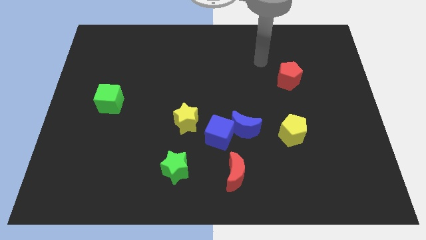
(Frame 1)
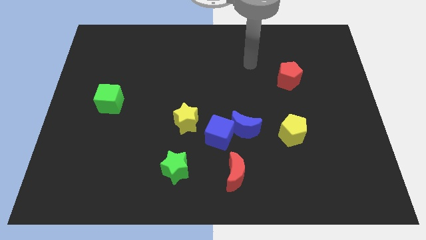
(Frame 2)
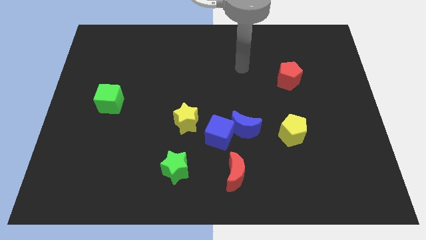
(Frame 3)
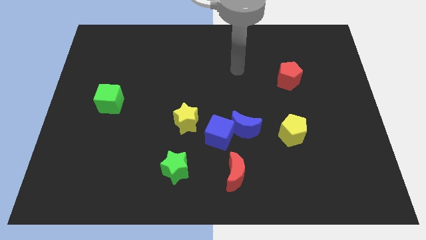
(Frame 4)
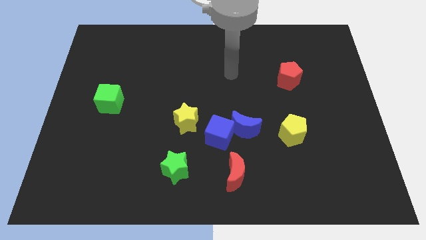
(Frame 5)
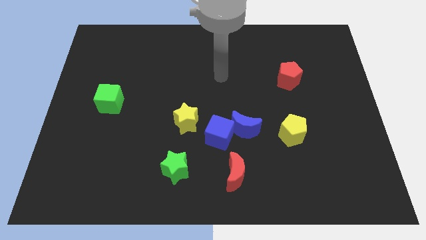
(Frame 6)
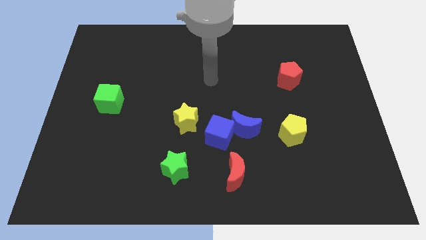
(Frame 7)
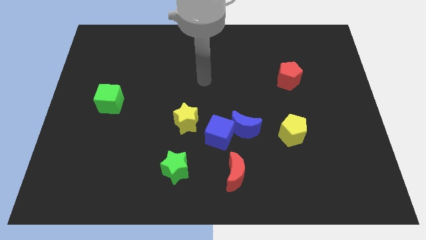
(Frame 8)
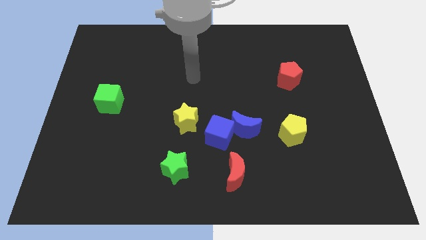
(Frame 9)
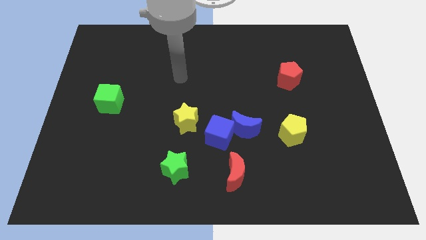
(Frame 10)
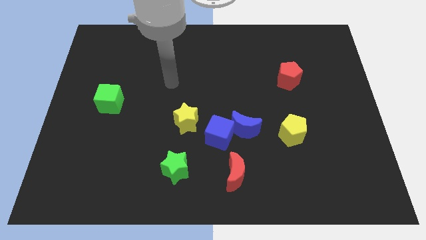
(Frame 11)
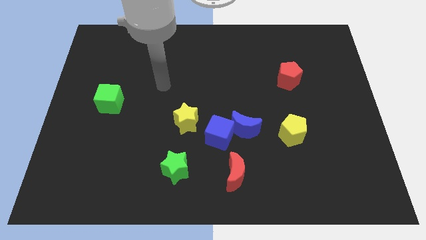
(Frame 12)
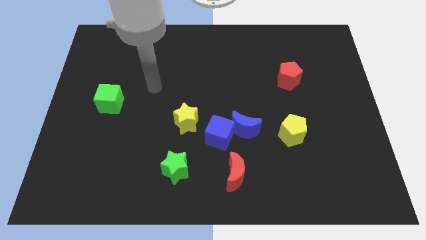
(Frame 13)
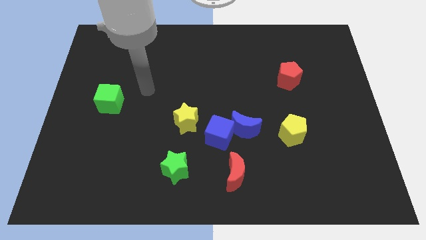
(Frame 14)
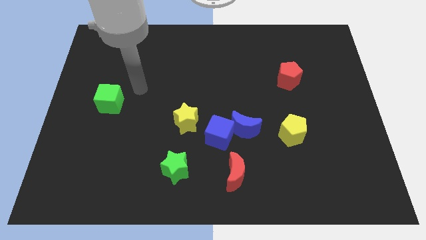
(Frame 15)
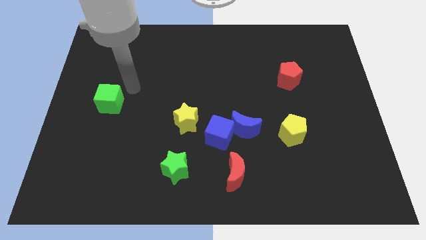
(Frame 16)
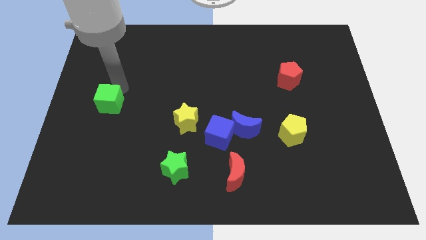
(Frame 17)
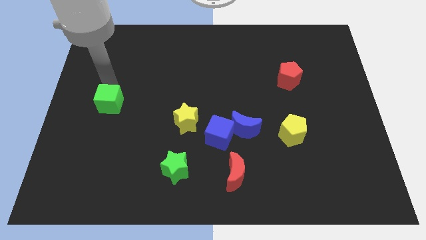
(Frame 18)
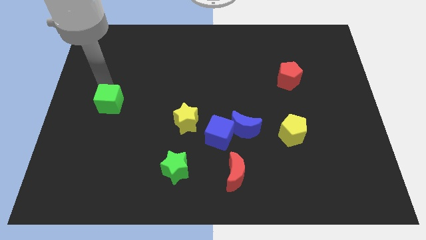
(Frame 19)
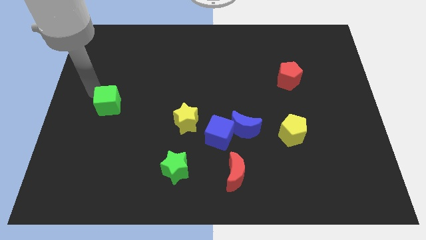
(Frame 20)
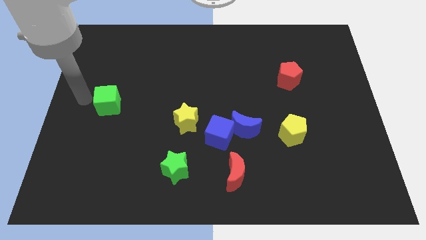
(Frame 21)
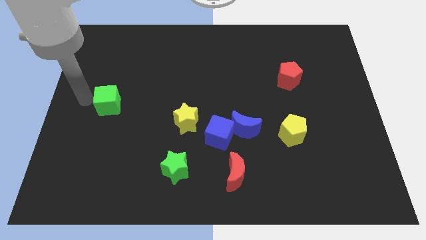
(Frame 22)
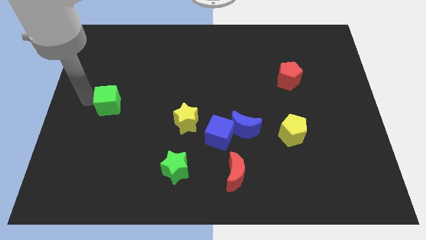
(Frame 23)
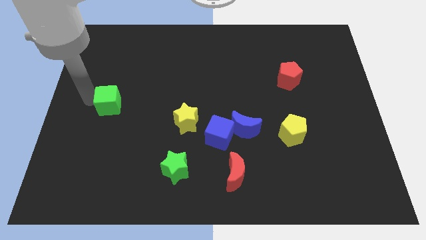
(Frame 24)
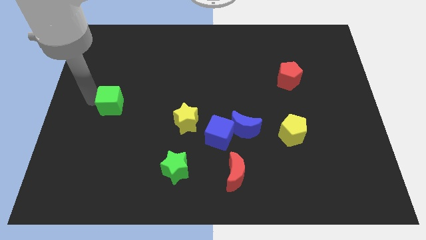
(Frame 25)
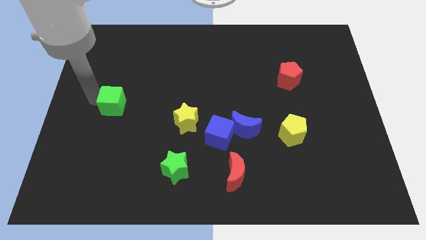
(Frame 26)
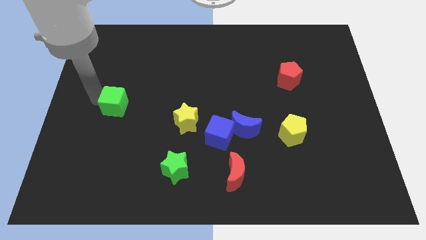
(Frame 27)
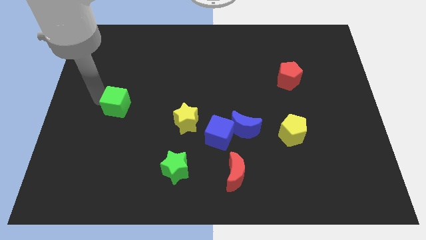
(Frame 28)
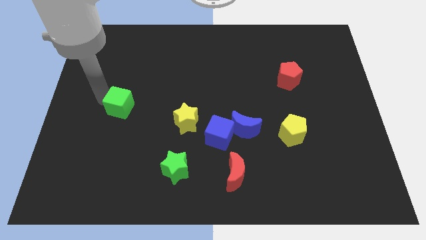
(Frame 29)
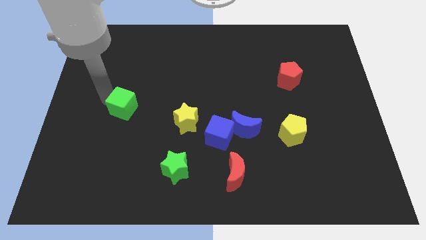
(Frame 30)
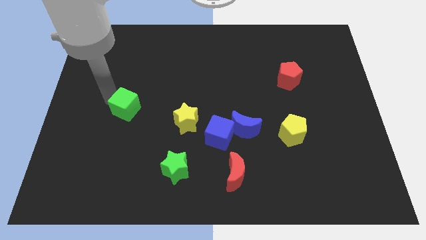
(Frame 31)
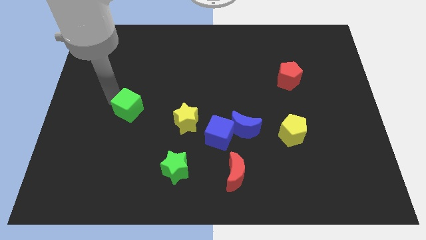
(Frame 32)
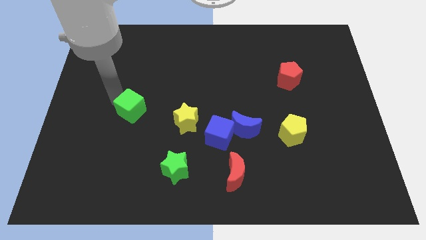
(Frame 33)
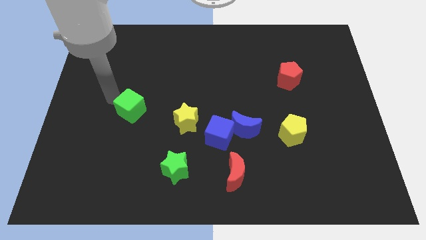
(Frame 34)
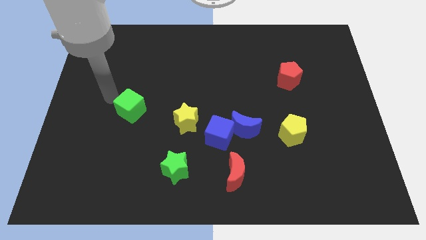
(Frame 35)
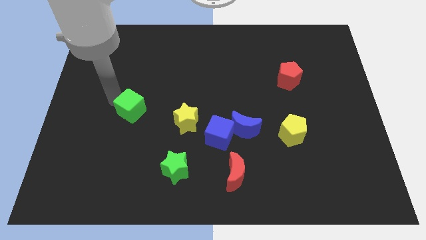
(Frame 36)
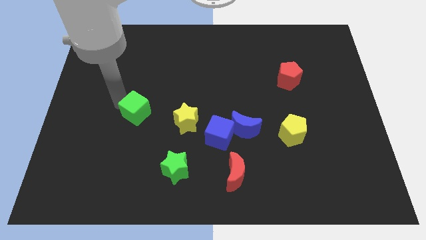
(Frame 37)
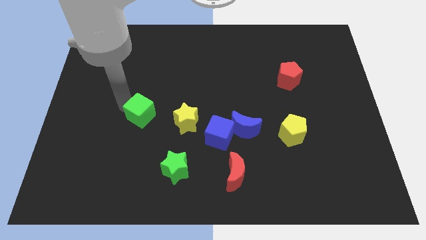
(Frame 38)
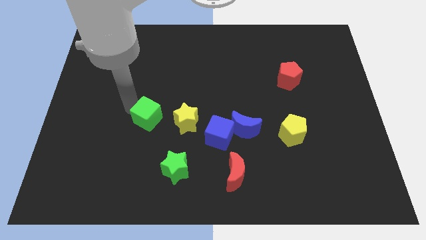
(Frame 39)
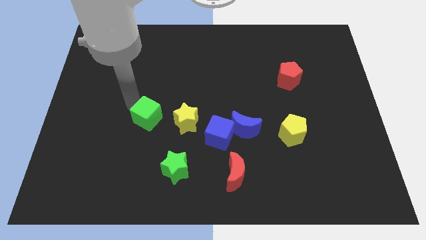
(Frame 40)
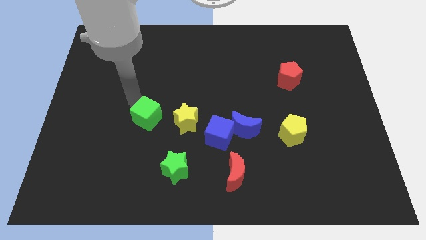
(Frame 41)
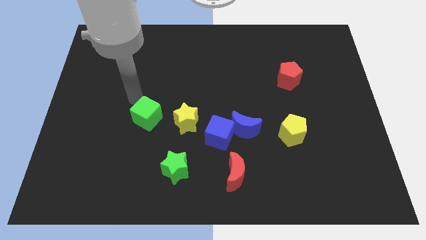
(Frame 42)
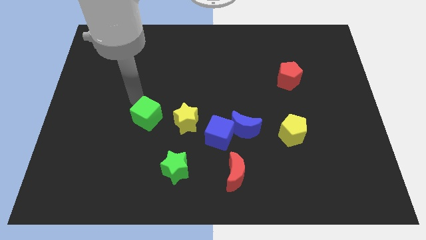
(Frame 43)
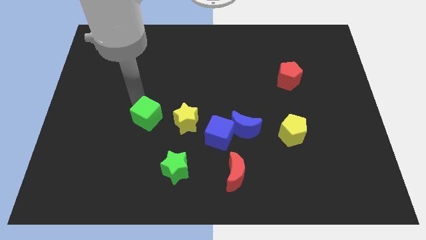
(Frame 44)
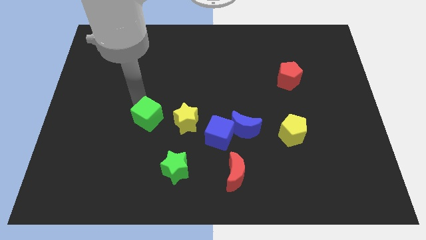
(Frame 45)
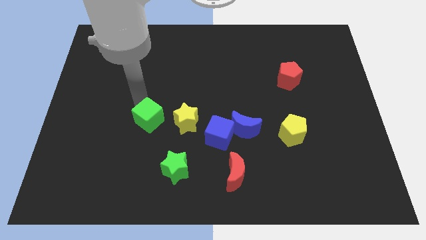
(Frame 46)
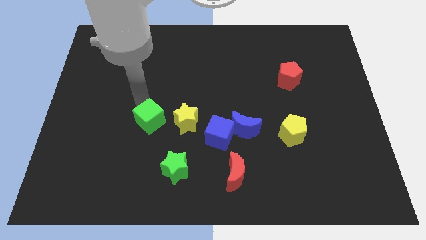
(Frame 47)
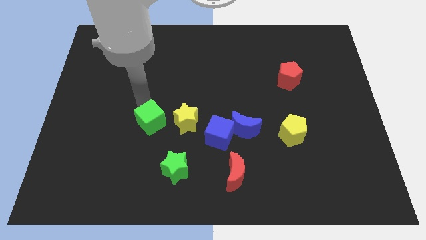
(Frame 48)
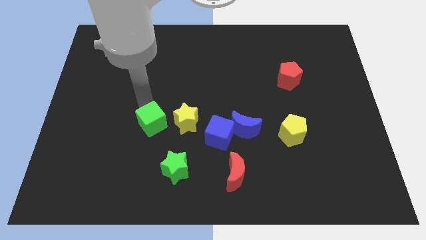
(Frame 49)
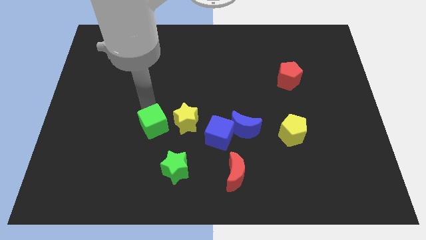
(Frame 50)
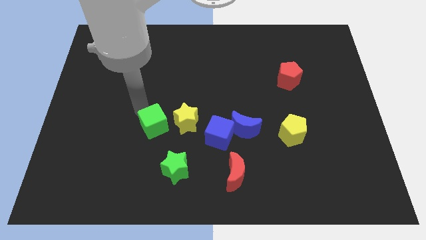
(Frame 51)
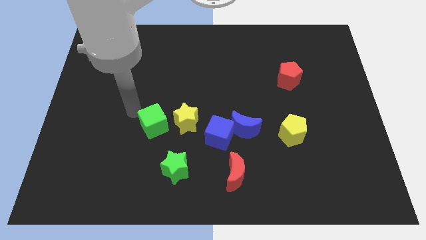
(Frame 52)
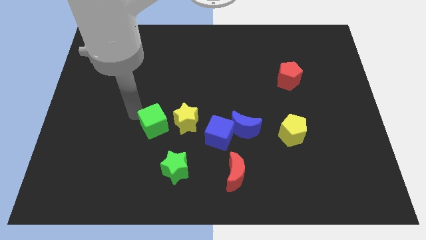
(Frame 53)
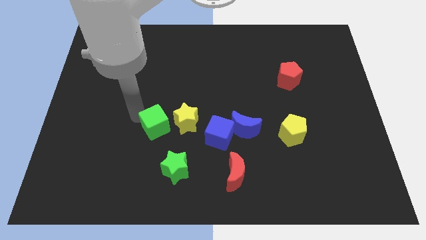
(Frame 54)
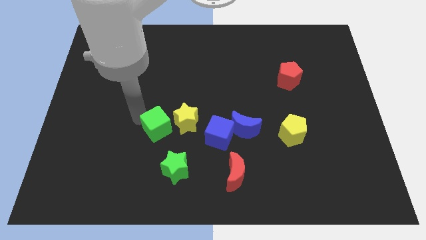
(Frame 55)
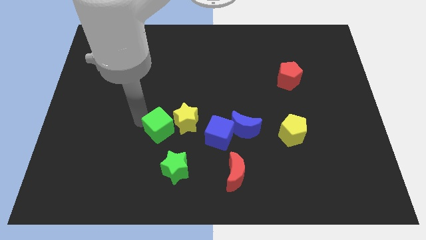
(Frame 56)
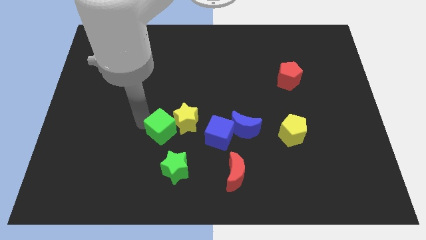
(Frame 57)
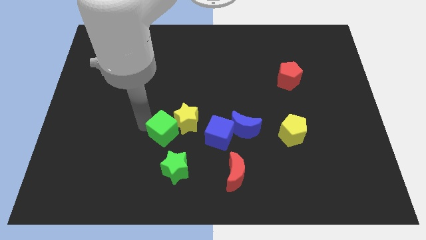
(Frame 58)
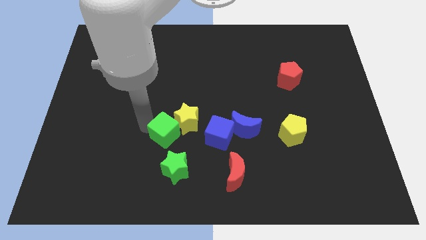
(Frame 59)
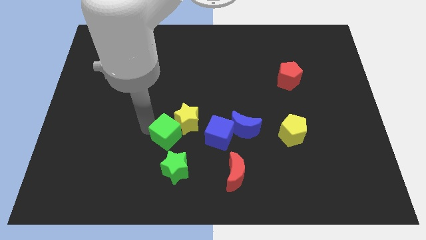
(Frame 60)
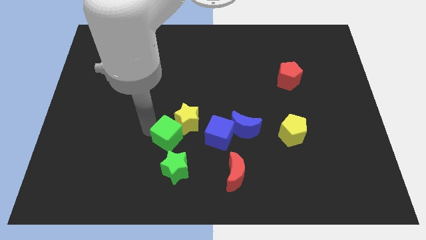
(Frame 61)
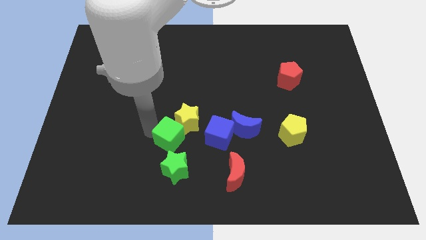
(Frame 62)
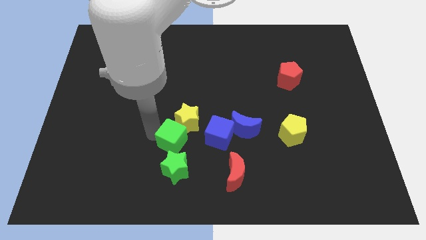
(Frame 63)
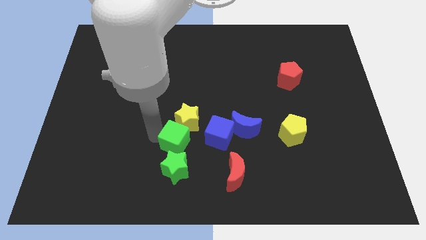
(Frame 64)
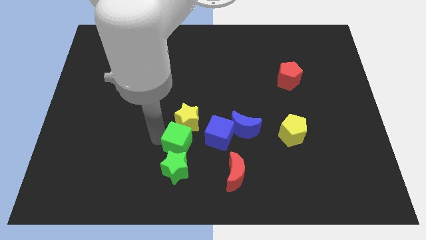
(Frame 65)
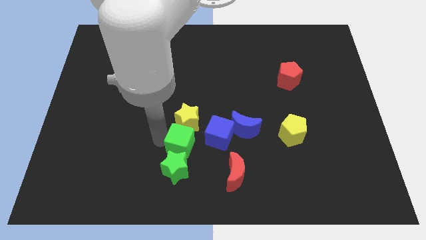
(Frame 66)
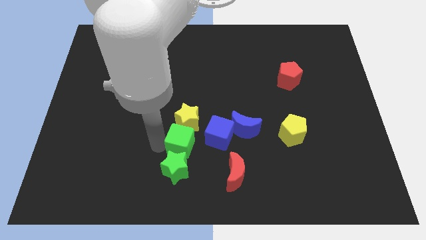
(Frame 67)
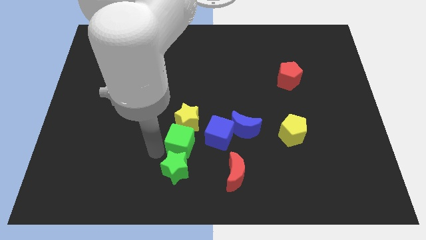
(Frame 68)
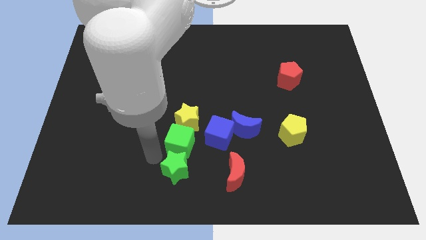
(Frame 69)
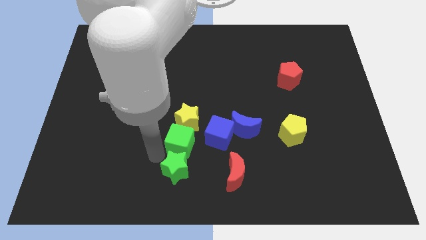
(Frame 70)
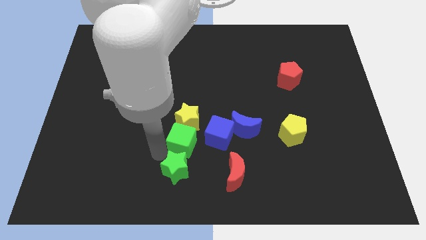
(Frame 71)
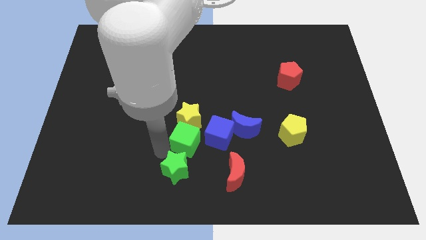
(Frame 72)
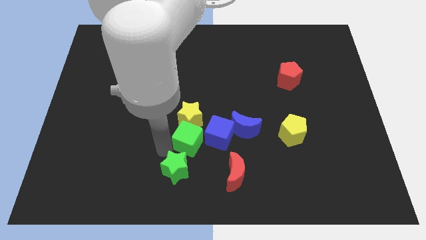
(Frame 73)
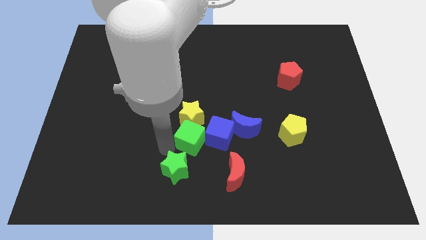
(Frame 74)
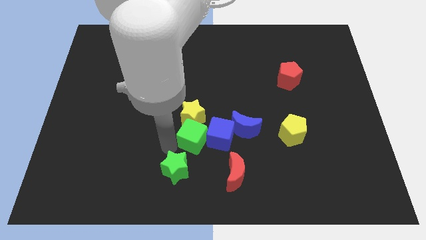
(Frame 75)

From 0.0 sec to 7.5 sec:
put the green cube close to the blue cube

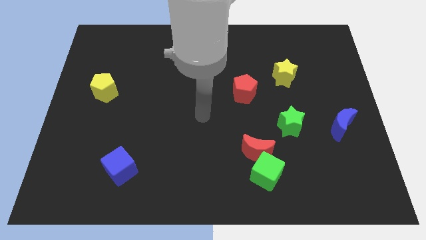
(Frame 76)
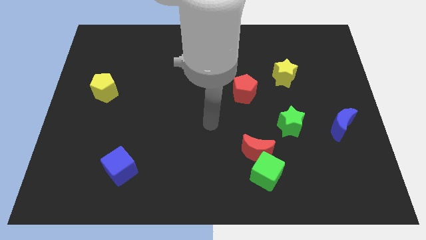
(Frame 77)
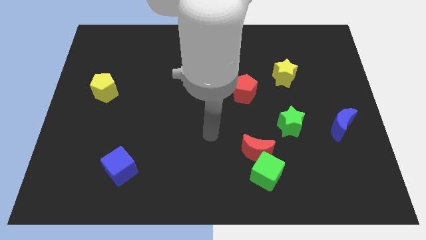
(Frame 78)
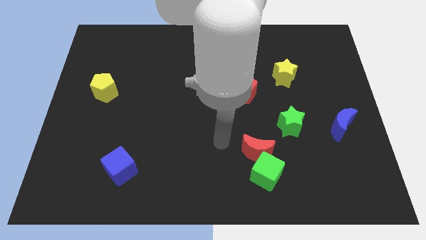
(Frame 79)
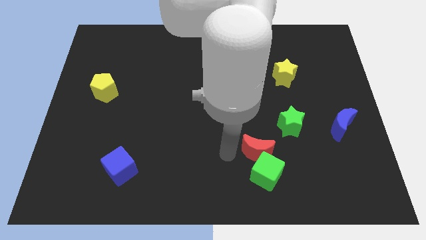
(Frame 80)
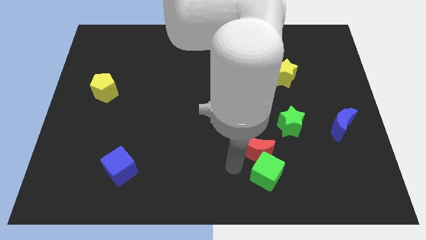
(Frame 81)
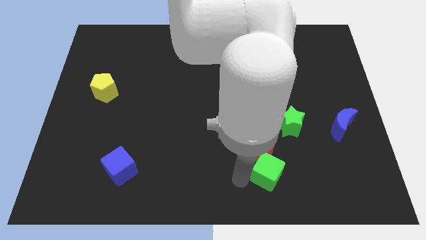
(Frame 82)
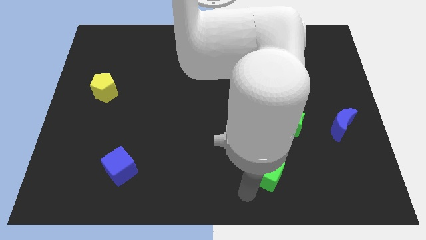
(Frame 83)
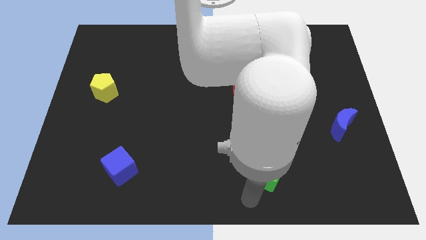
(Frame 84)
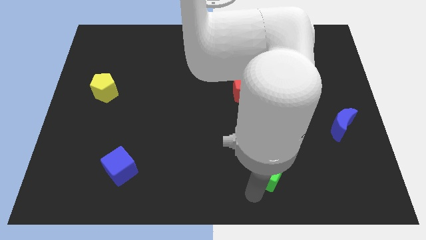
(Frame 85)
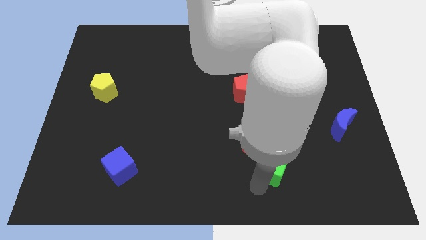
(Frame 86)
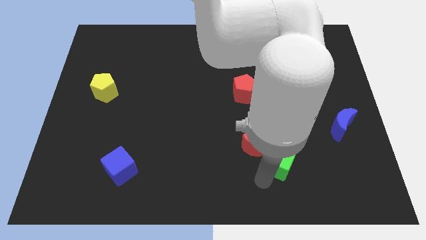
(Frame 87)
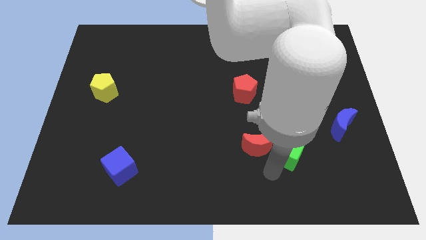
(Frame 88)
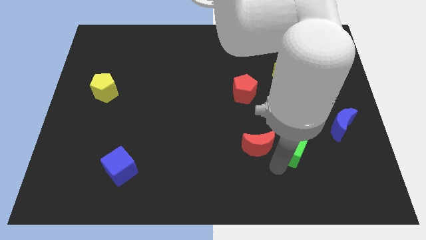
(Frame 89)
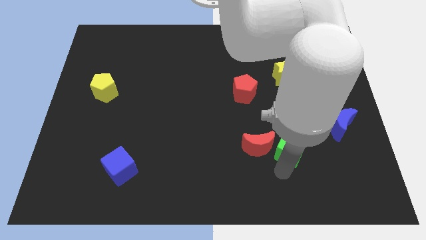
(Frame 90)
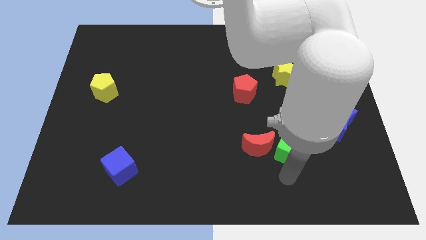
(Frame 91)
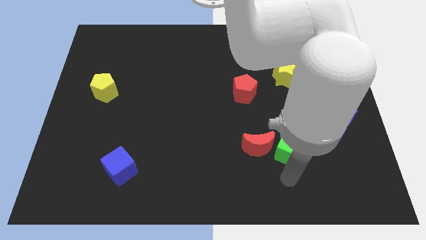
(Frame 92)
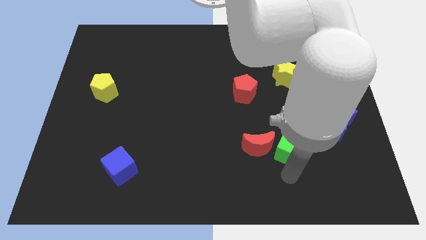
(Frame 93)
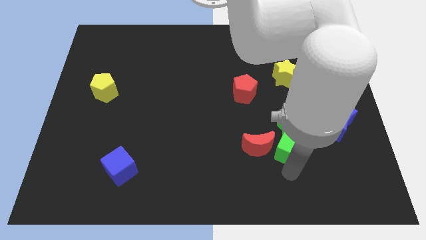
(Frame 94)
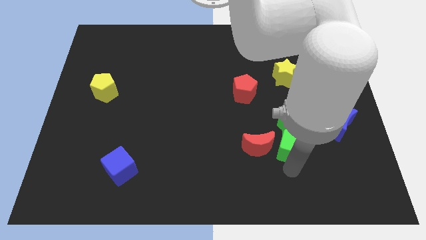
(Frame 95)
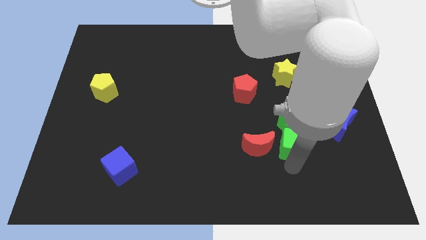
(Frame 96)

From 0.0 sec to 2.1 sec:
put the green cube next to the green star
